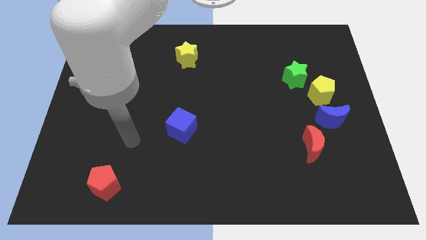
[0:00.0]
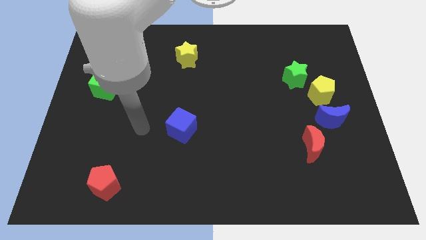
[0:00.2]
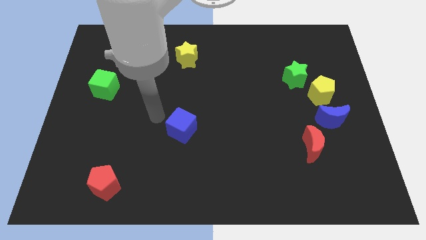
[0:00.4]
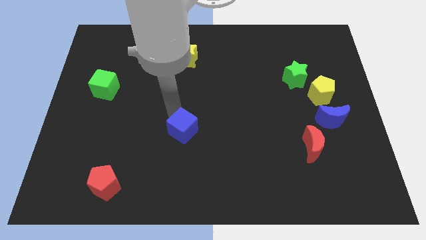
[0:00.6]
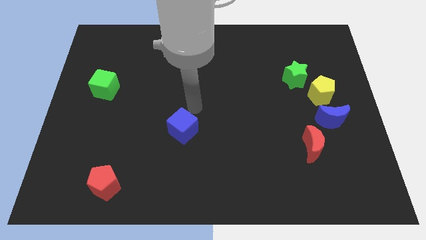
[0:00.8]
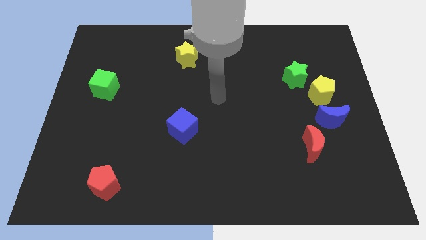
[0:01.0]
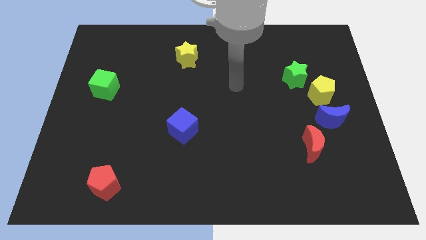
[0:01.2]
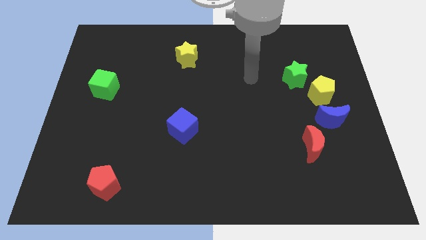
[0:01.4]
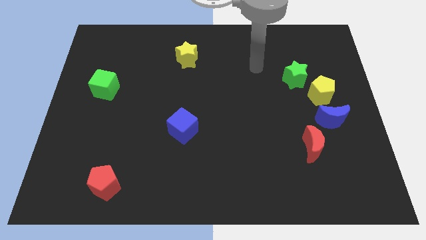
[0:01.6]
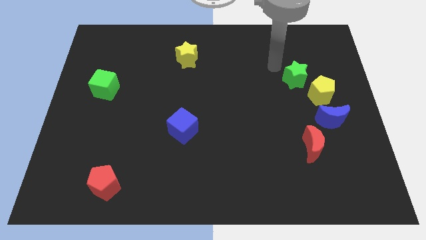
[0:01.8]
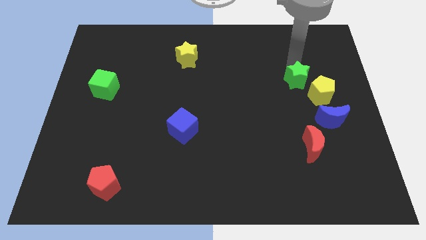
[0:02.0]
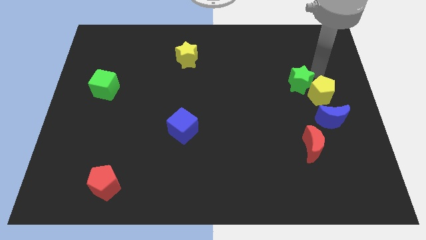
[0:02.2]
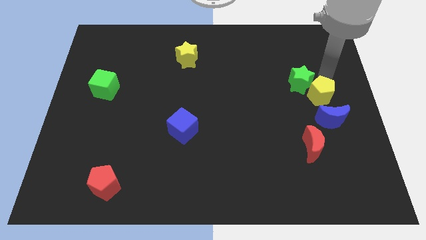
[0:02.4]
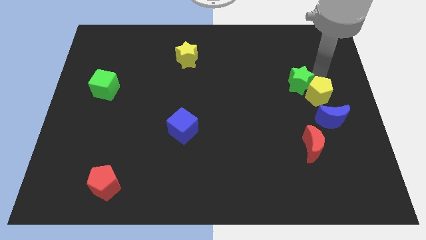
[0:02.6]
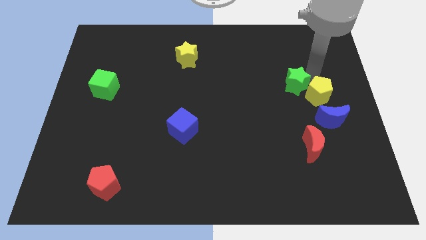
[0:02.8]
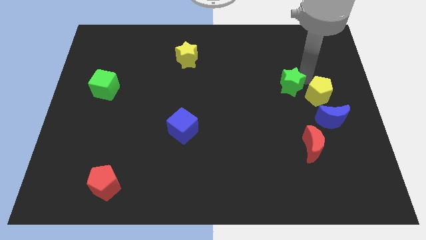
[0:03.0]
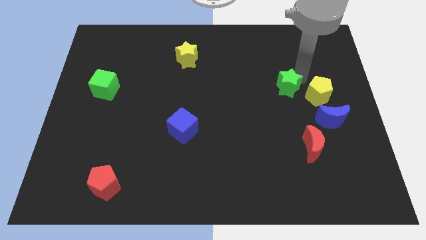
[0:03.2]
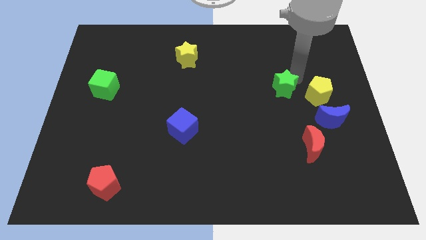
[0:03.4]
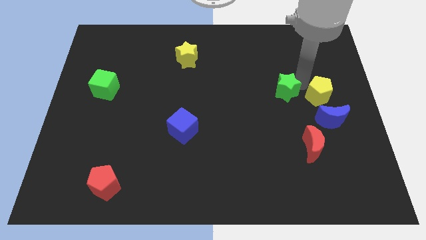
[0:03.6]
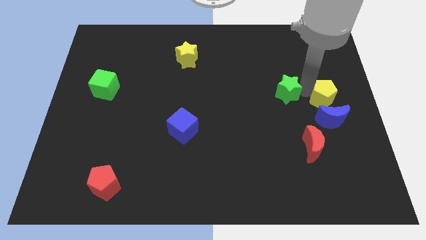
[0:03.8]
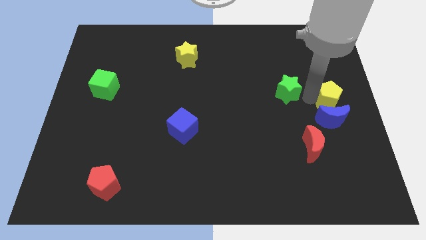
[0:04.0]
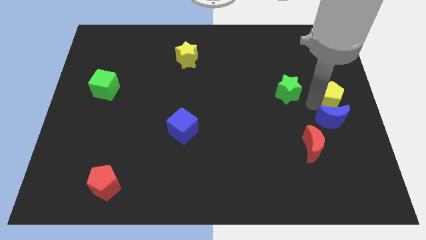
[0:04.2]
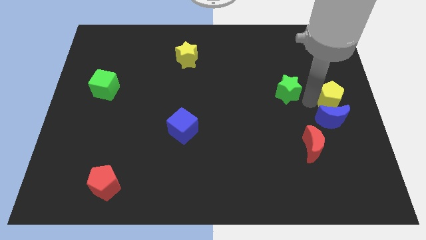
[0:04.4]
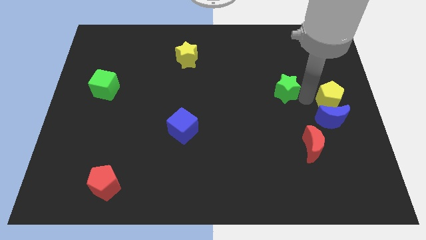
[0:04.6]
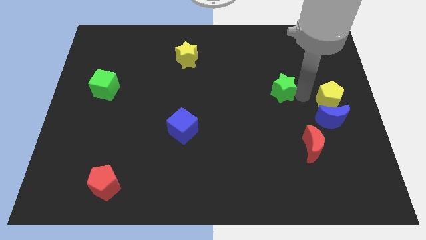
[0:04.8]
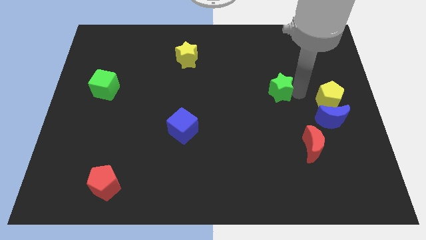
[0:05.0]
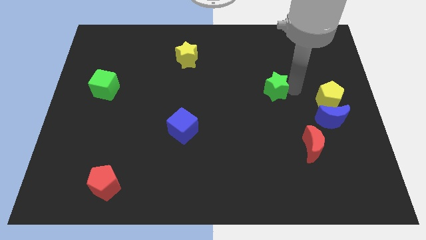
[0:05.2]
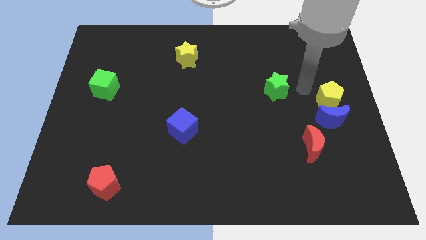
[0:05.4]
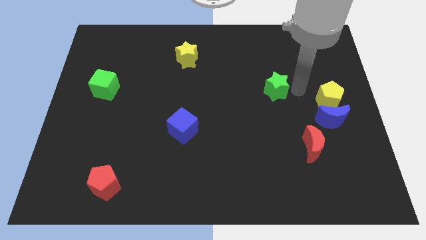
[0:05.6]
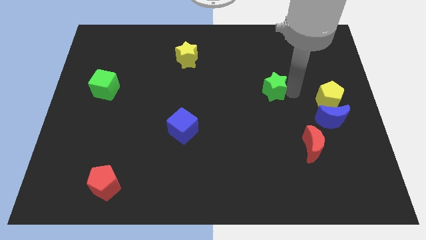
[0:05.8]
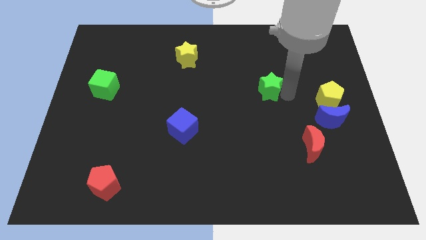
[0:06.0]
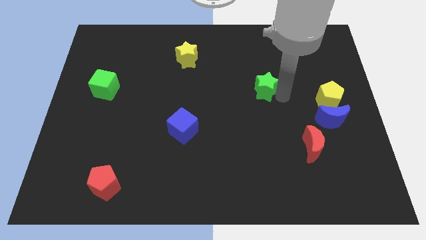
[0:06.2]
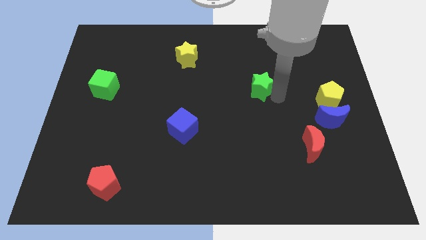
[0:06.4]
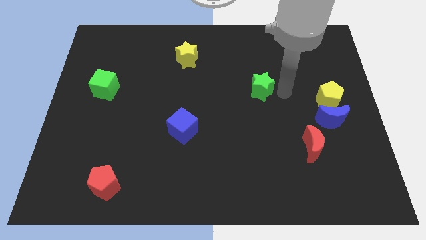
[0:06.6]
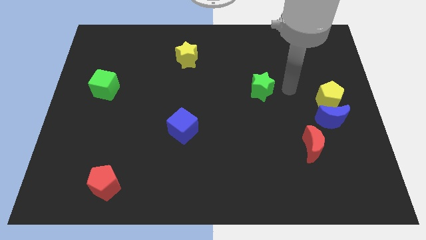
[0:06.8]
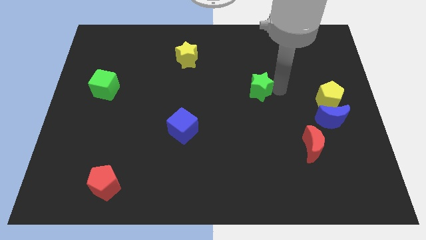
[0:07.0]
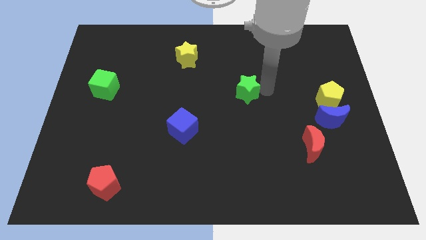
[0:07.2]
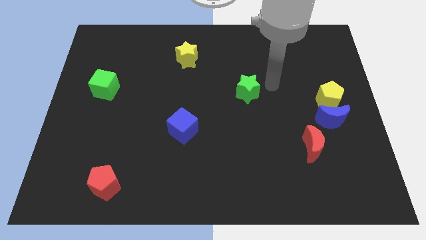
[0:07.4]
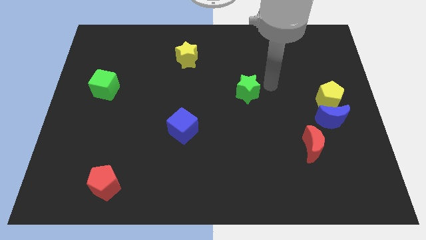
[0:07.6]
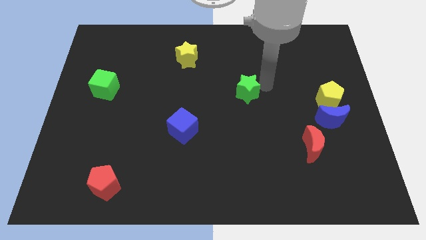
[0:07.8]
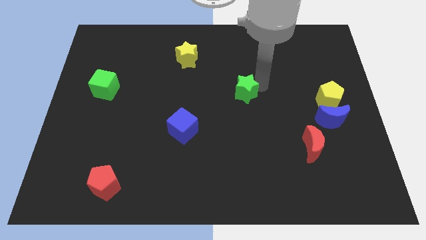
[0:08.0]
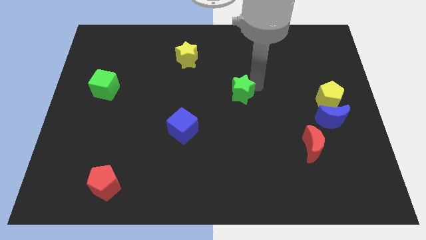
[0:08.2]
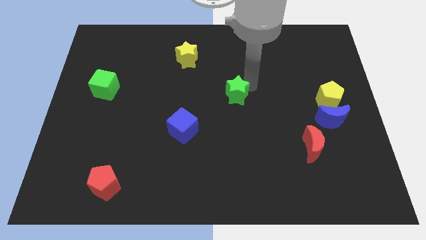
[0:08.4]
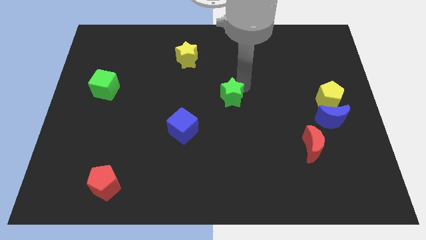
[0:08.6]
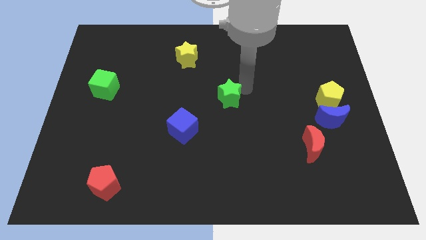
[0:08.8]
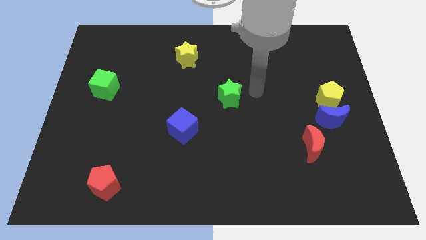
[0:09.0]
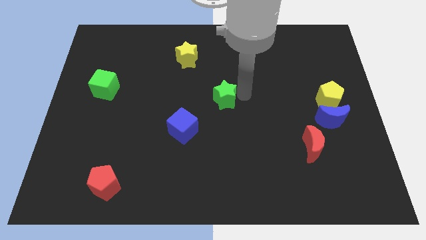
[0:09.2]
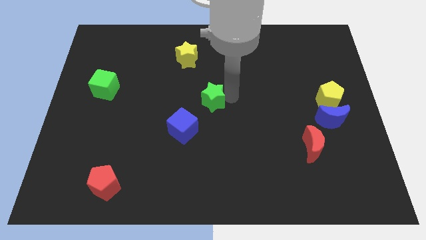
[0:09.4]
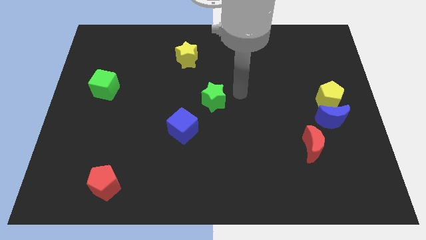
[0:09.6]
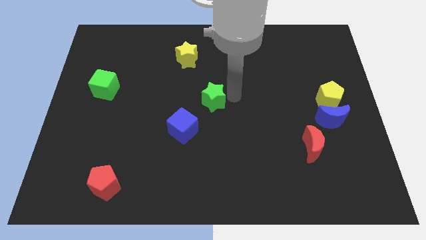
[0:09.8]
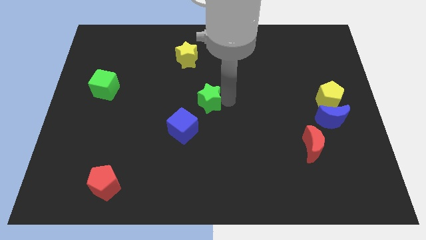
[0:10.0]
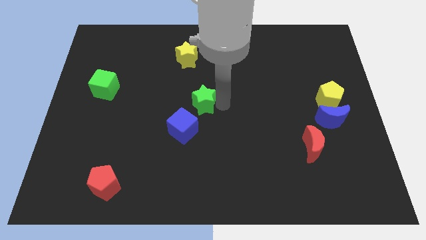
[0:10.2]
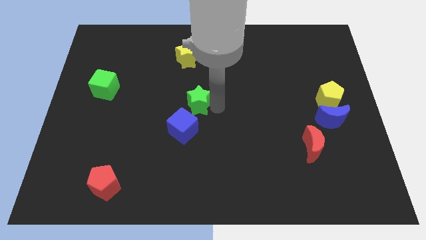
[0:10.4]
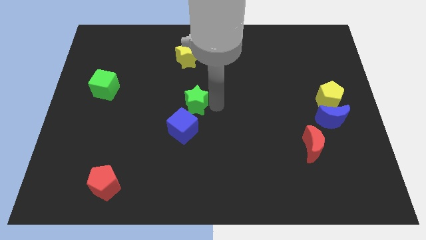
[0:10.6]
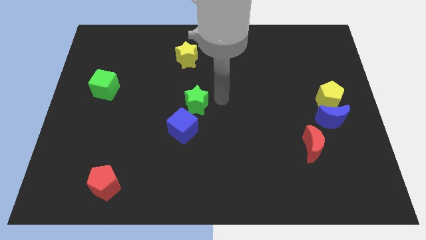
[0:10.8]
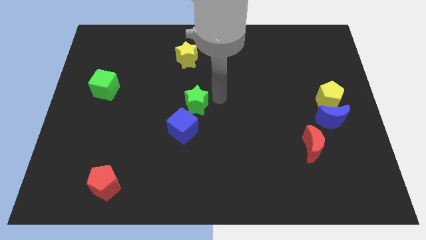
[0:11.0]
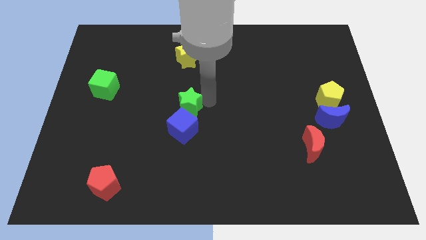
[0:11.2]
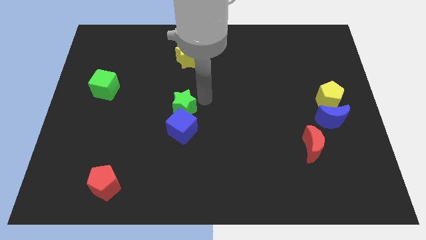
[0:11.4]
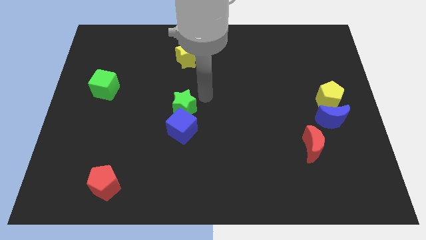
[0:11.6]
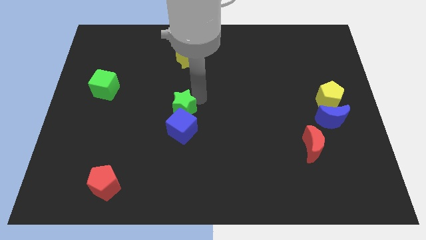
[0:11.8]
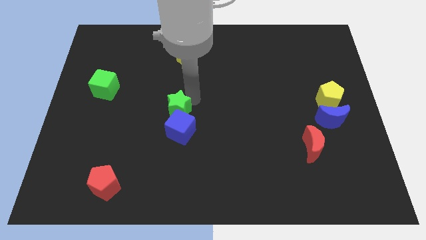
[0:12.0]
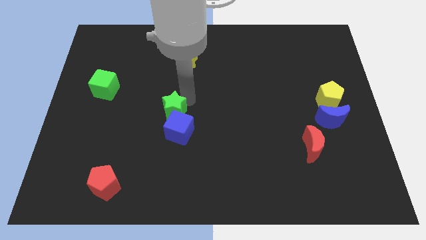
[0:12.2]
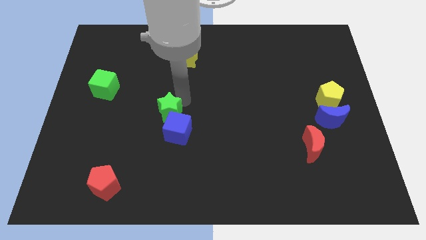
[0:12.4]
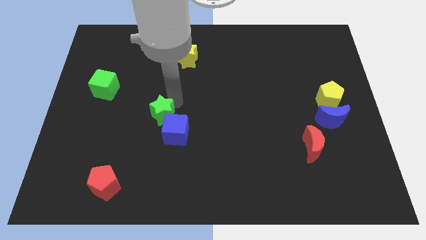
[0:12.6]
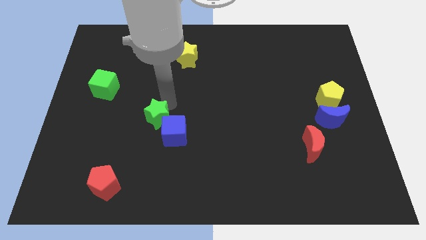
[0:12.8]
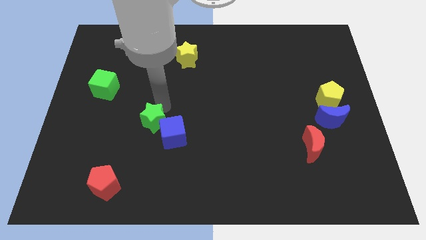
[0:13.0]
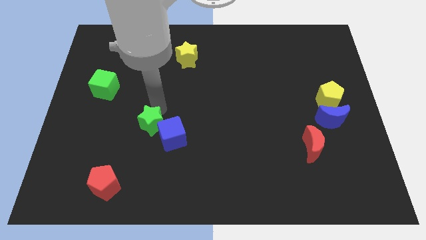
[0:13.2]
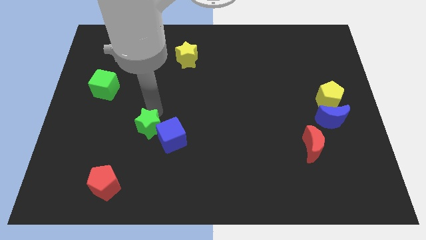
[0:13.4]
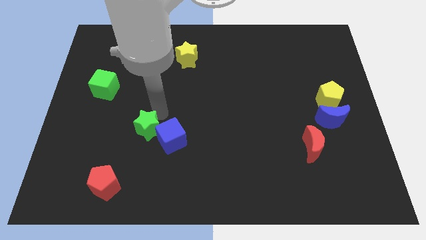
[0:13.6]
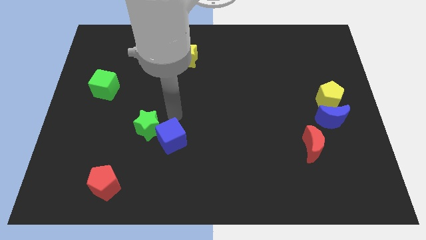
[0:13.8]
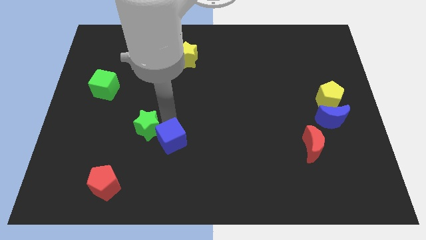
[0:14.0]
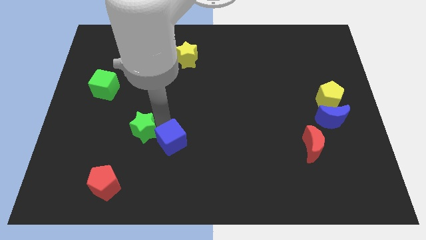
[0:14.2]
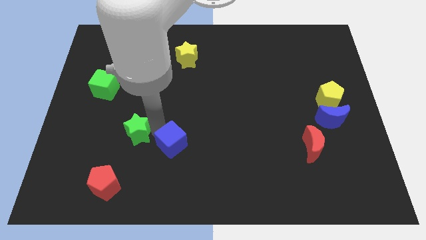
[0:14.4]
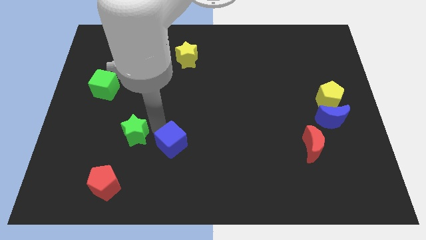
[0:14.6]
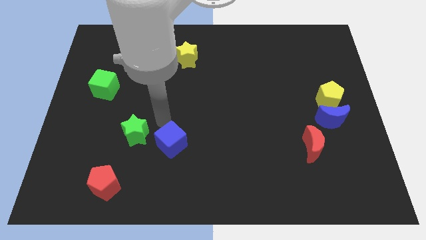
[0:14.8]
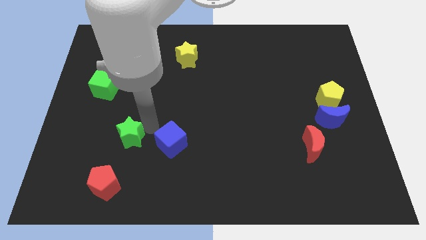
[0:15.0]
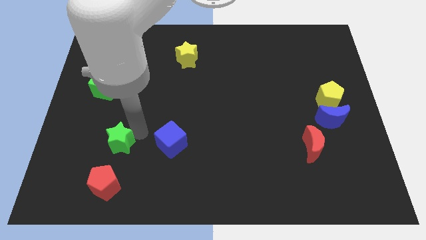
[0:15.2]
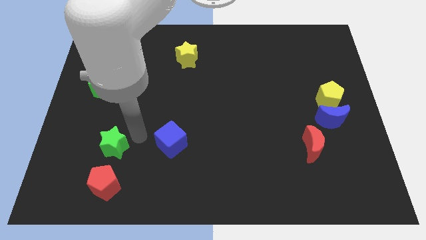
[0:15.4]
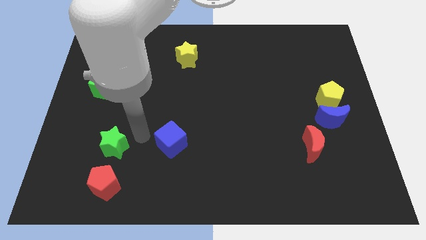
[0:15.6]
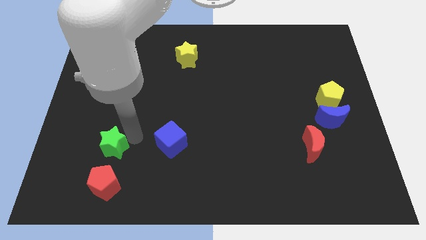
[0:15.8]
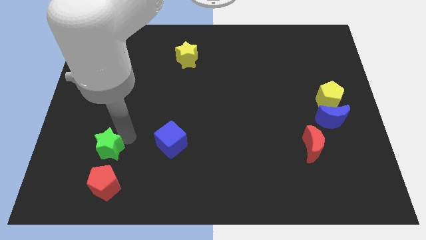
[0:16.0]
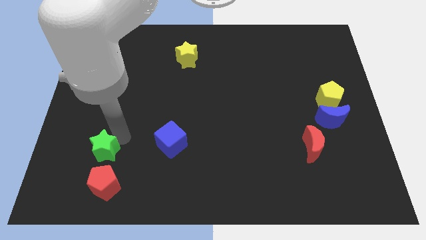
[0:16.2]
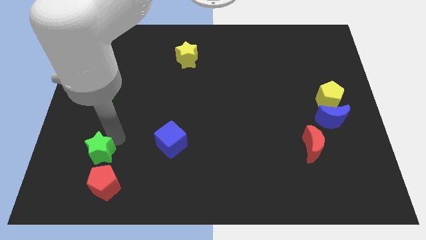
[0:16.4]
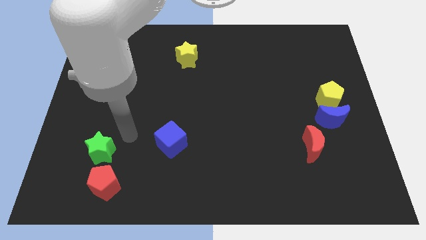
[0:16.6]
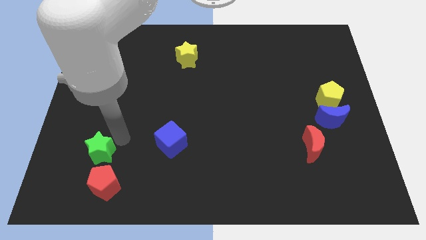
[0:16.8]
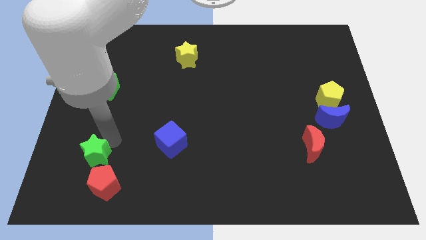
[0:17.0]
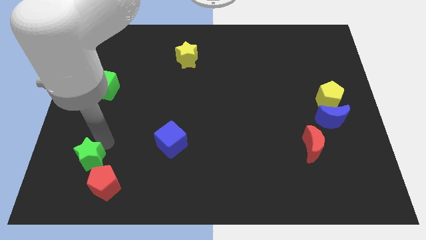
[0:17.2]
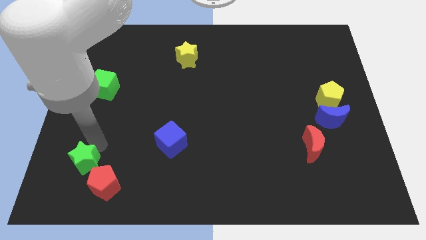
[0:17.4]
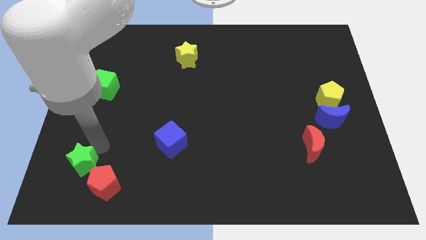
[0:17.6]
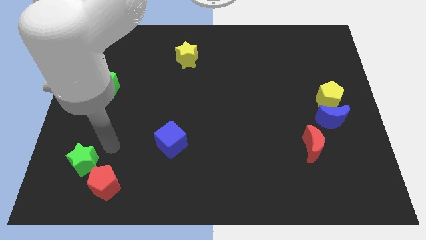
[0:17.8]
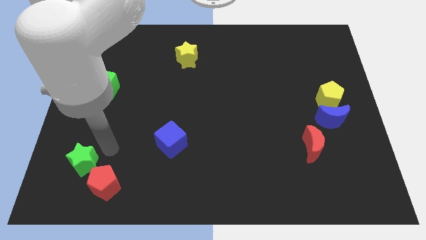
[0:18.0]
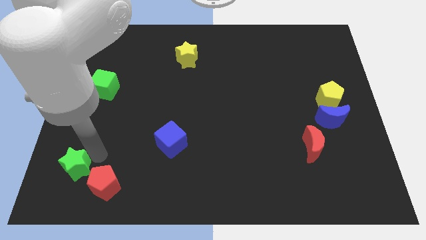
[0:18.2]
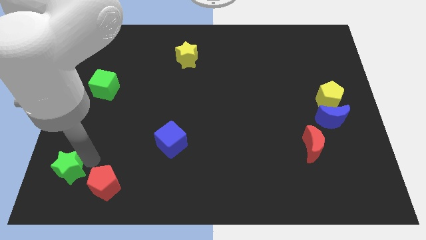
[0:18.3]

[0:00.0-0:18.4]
slide the green star to the bottom left corner
